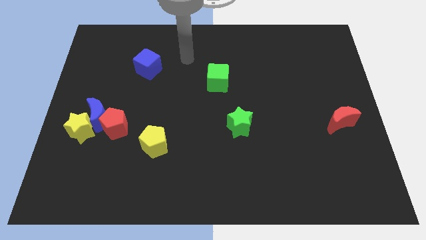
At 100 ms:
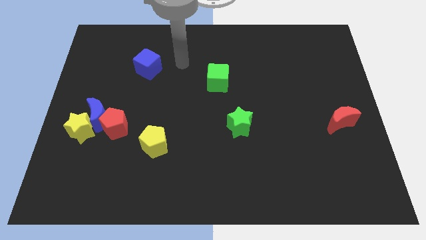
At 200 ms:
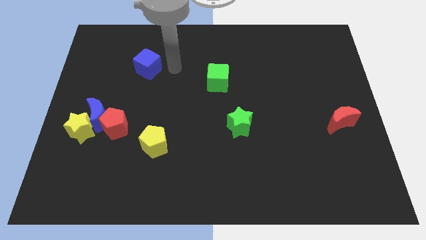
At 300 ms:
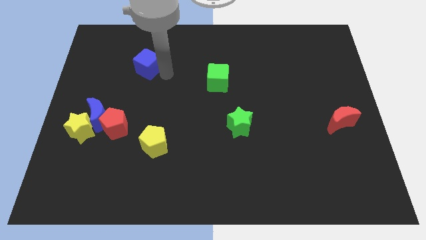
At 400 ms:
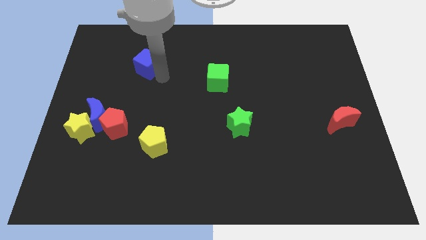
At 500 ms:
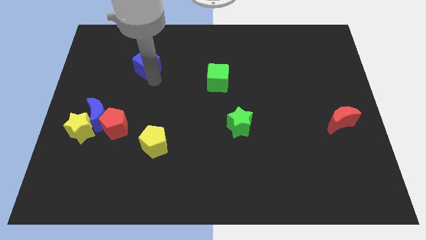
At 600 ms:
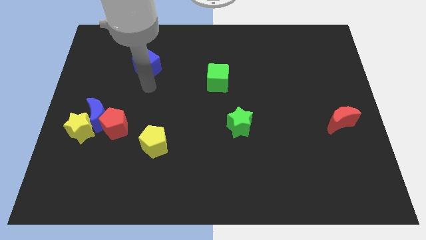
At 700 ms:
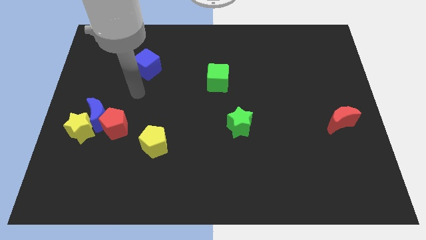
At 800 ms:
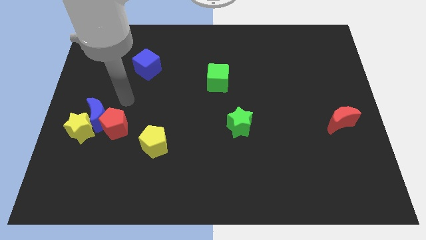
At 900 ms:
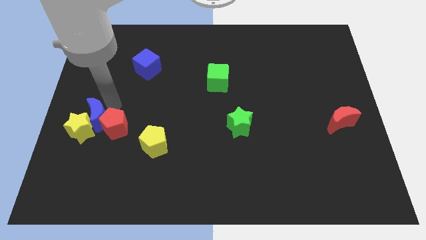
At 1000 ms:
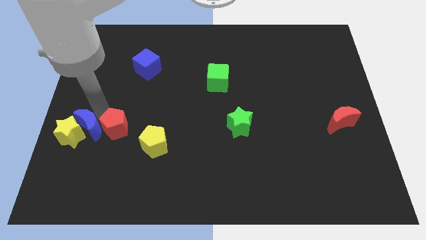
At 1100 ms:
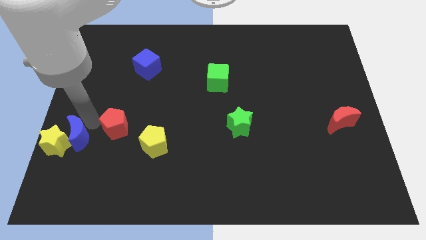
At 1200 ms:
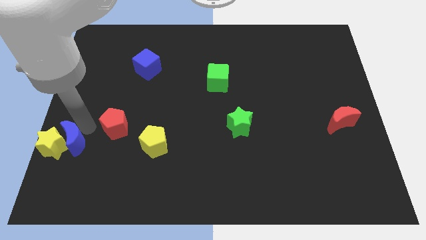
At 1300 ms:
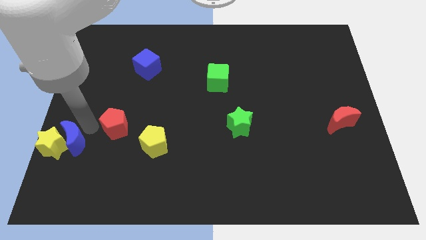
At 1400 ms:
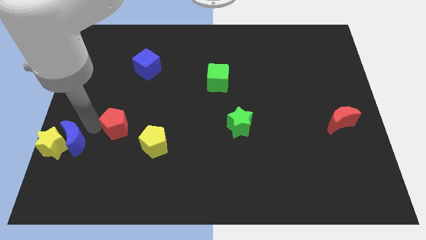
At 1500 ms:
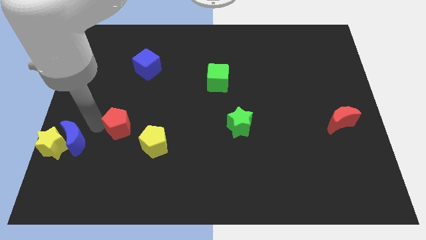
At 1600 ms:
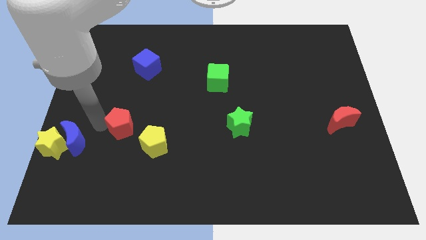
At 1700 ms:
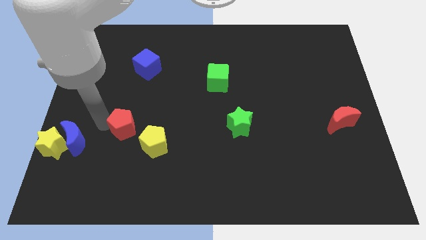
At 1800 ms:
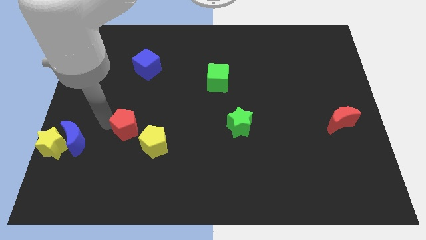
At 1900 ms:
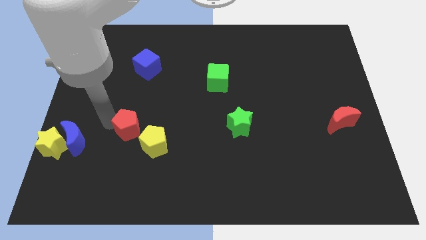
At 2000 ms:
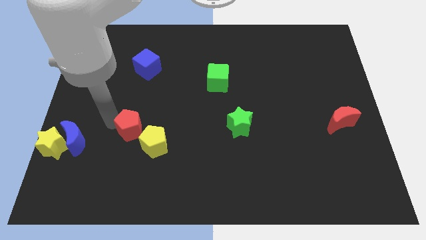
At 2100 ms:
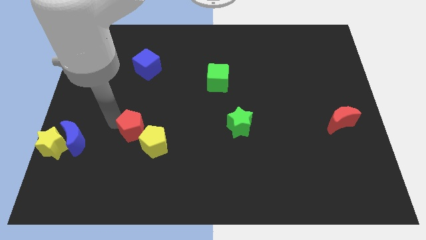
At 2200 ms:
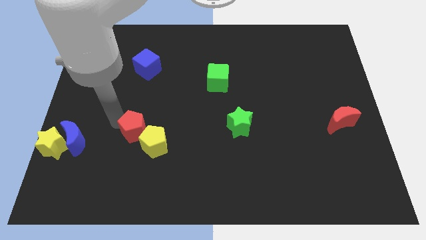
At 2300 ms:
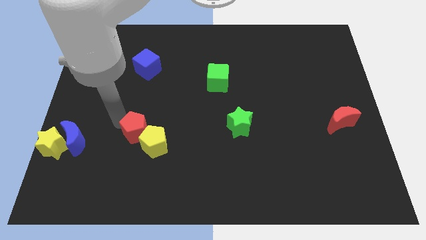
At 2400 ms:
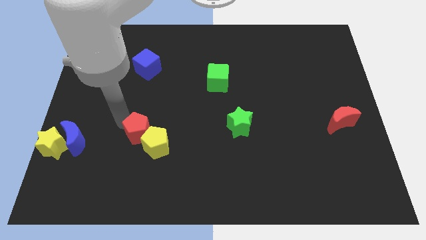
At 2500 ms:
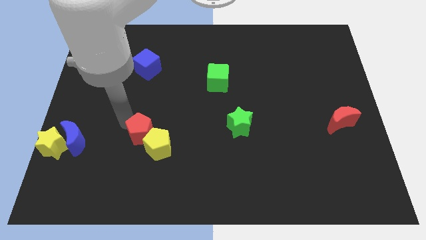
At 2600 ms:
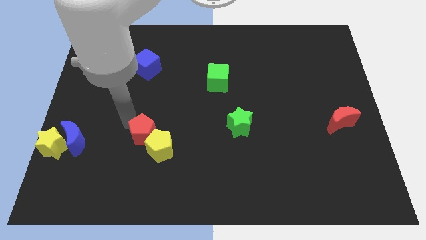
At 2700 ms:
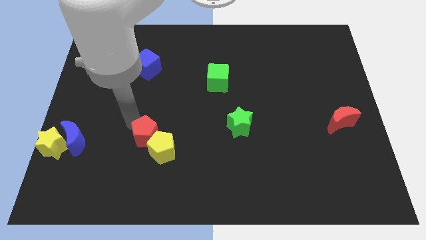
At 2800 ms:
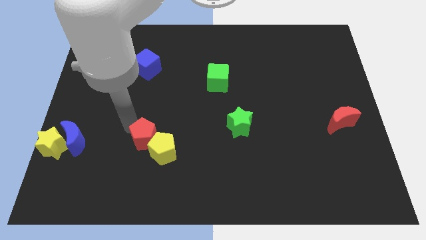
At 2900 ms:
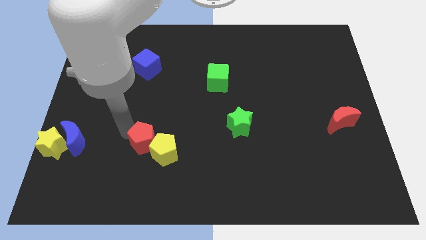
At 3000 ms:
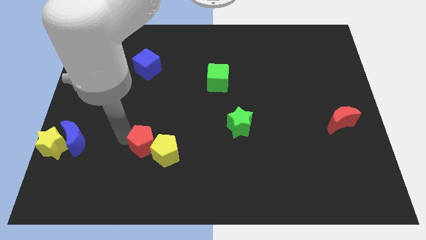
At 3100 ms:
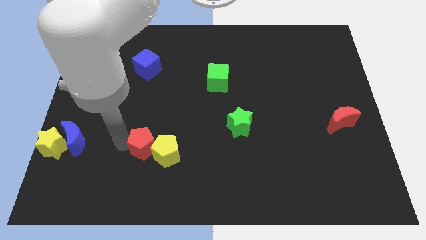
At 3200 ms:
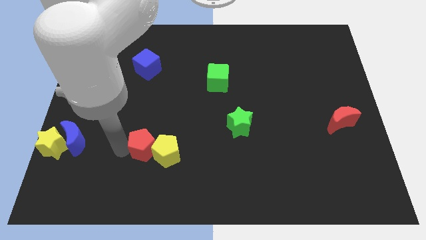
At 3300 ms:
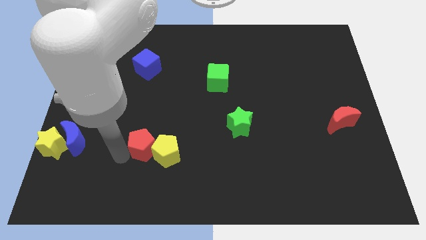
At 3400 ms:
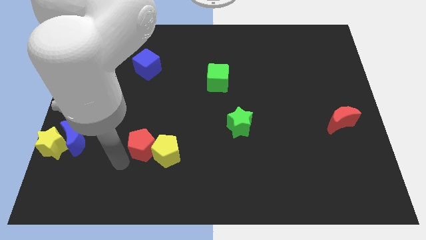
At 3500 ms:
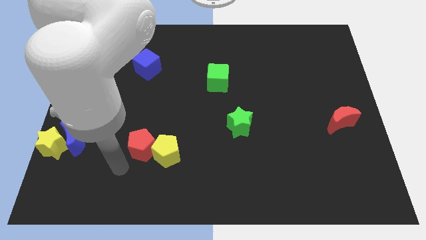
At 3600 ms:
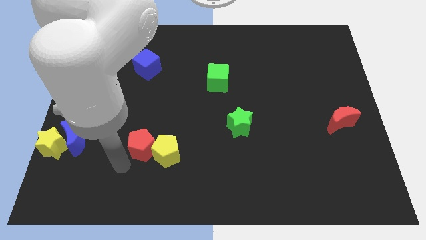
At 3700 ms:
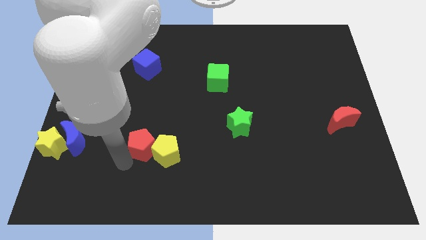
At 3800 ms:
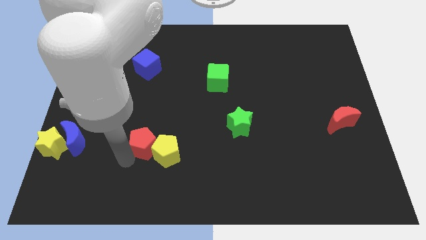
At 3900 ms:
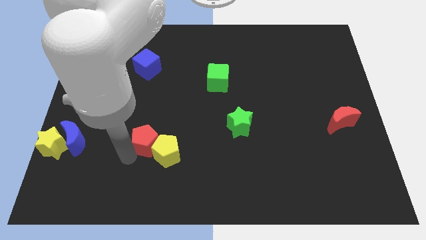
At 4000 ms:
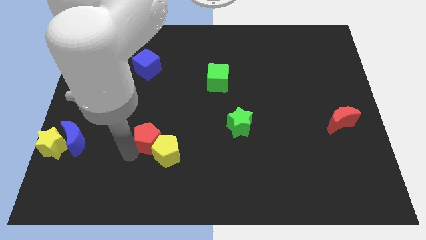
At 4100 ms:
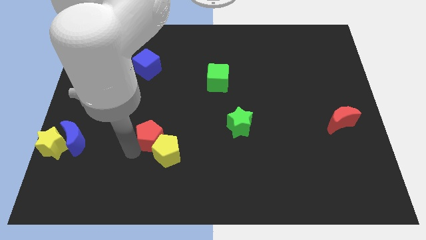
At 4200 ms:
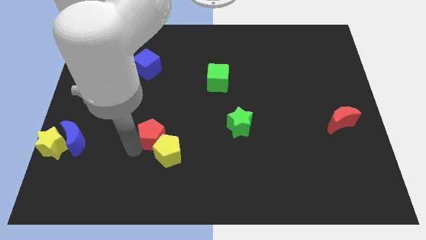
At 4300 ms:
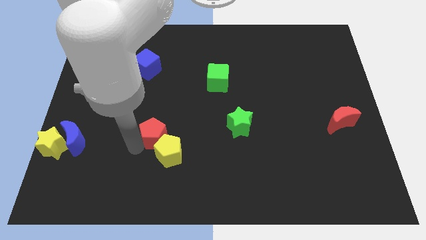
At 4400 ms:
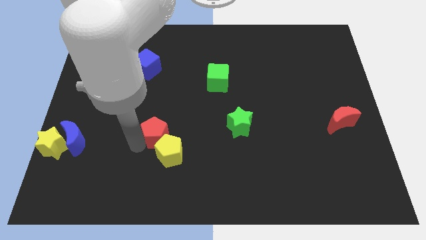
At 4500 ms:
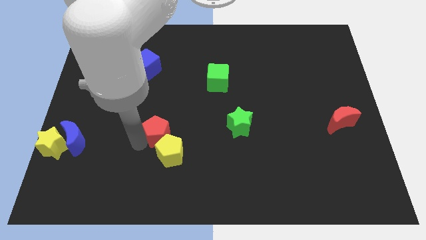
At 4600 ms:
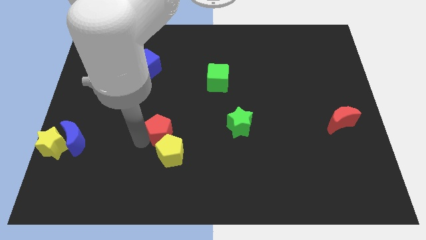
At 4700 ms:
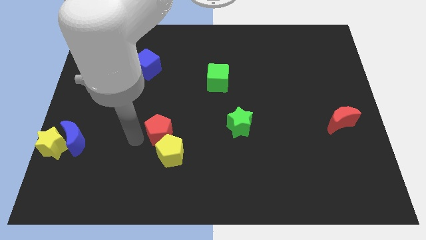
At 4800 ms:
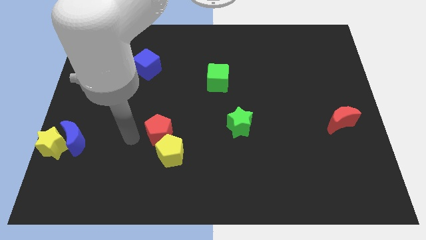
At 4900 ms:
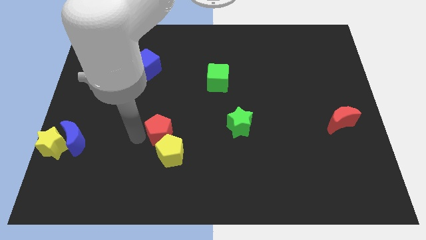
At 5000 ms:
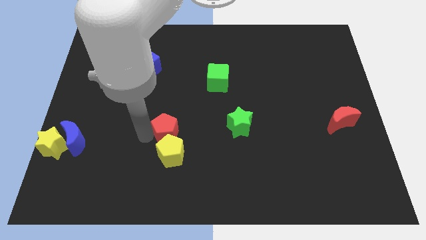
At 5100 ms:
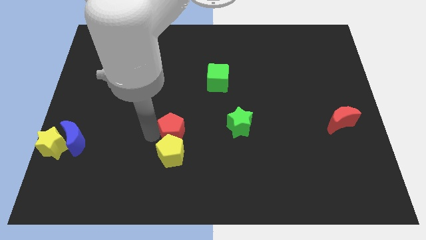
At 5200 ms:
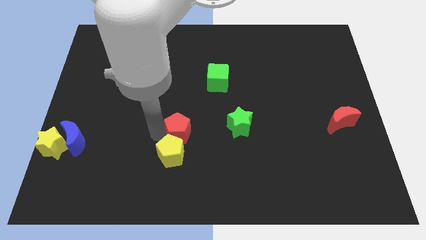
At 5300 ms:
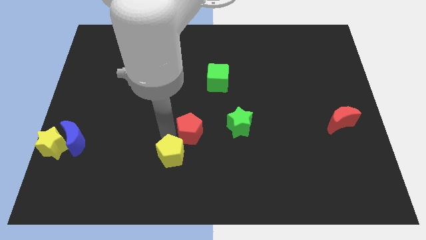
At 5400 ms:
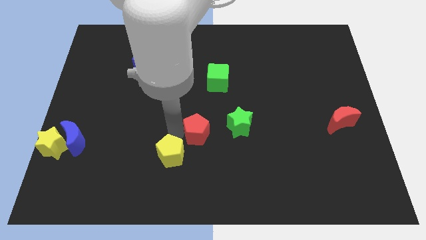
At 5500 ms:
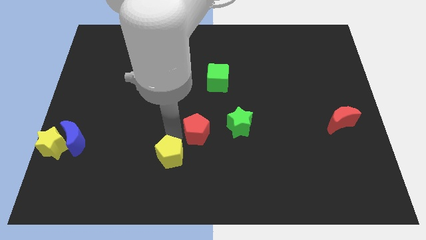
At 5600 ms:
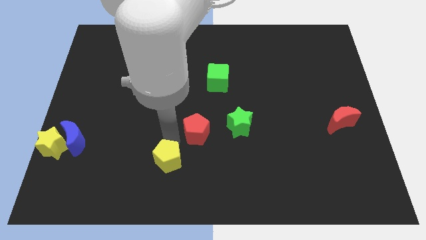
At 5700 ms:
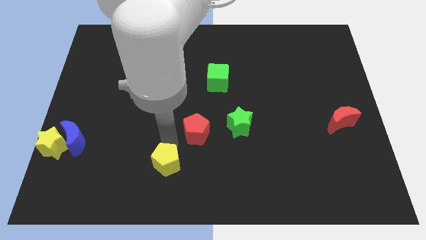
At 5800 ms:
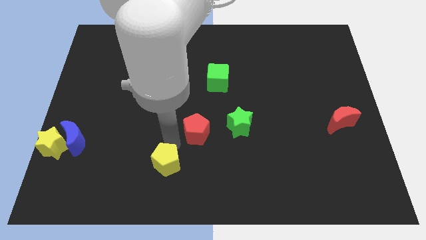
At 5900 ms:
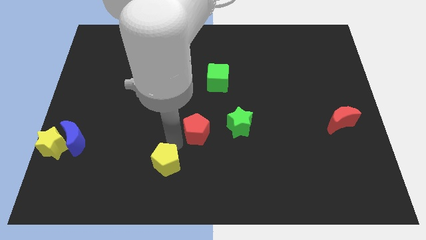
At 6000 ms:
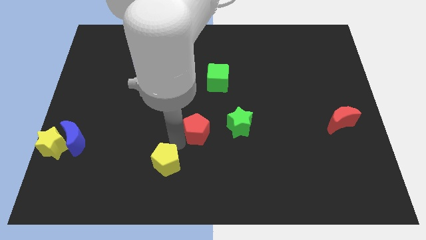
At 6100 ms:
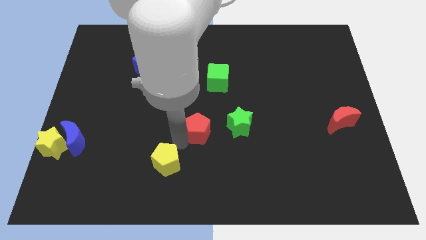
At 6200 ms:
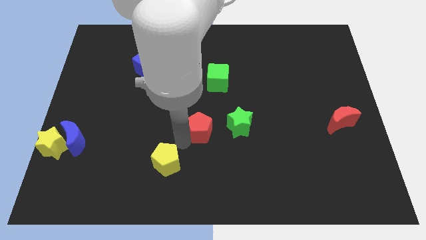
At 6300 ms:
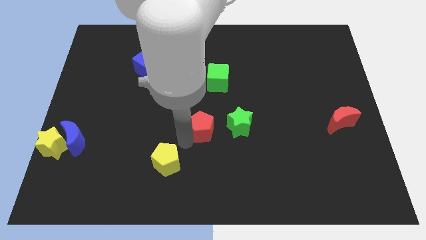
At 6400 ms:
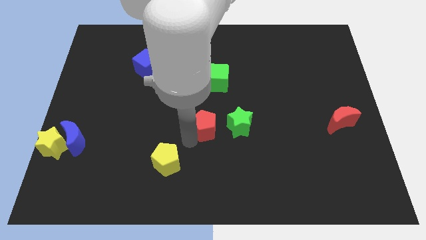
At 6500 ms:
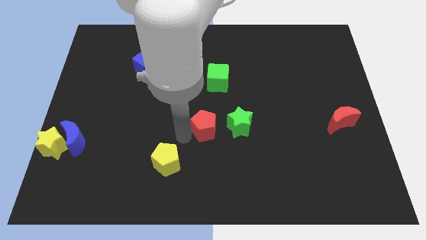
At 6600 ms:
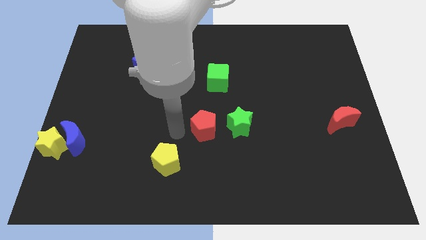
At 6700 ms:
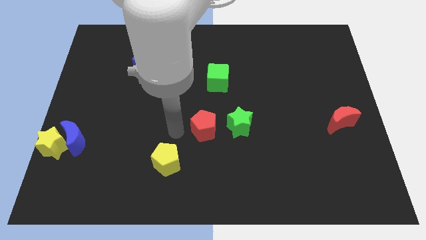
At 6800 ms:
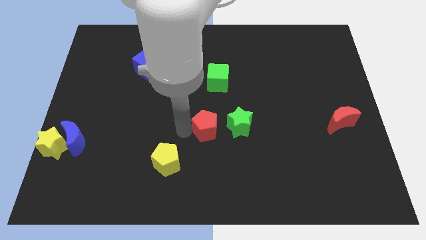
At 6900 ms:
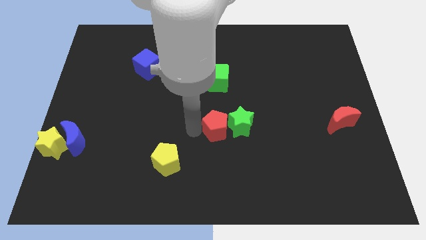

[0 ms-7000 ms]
slide the red pentagon to the green star
